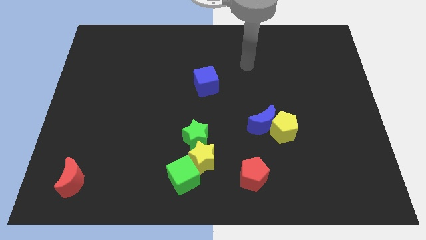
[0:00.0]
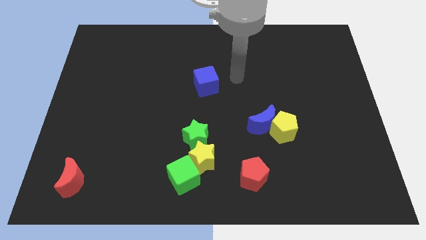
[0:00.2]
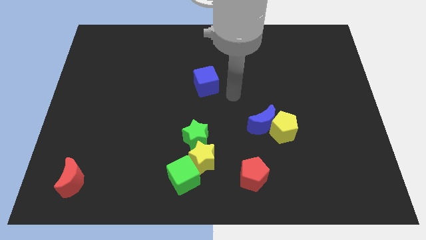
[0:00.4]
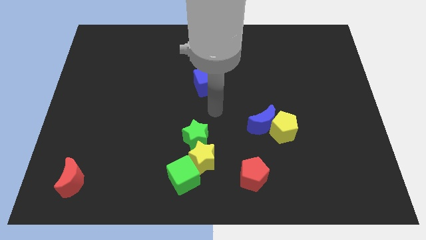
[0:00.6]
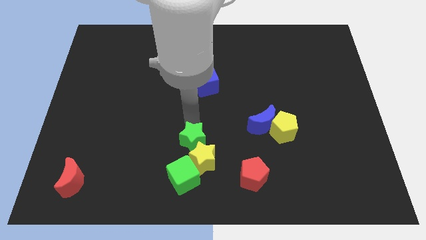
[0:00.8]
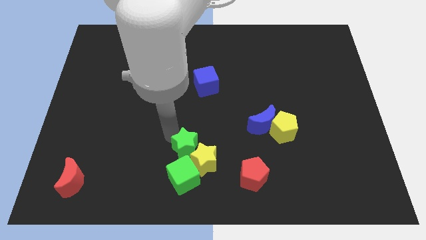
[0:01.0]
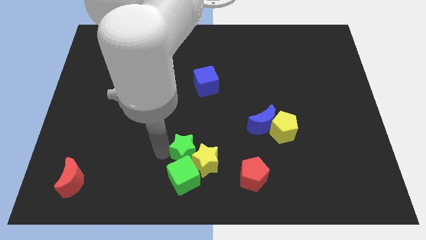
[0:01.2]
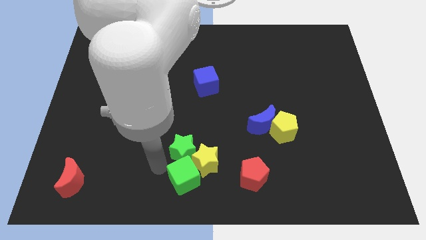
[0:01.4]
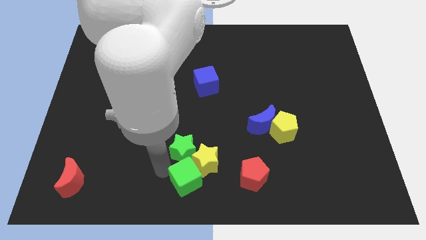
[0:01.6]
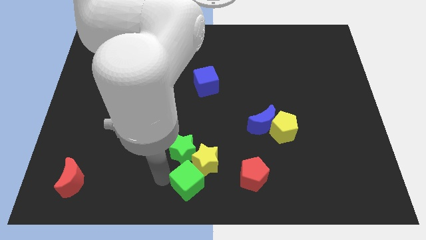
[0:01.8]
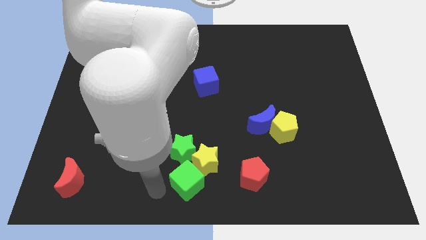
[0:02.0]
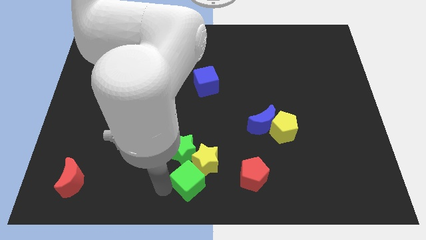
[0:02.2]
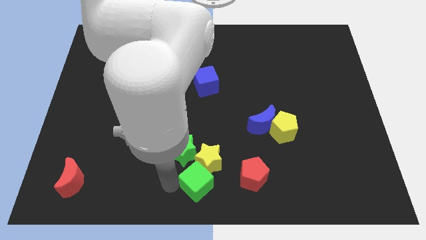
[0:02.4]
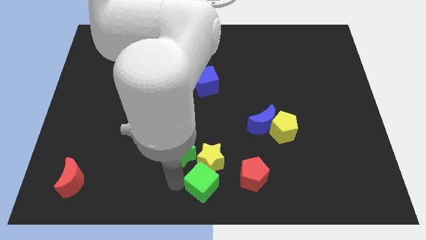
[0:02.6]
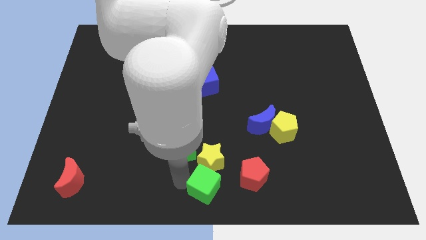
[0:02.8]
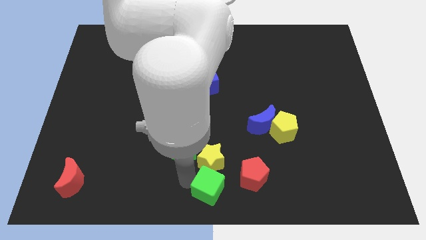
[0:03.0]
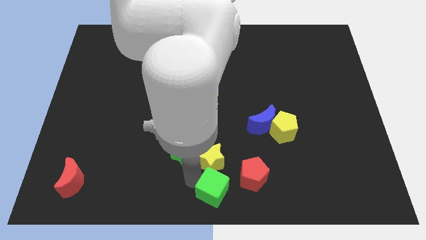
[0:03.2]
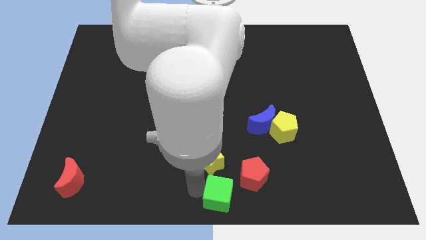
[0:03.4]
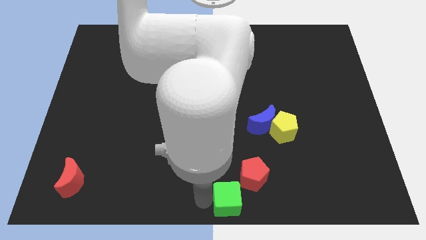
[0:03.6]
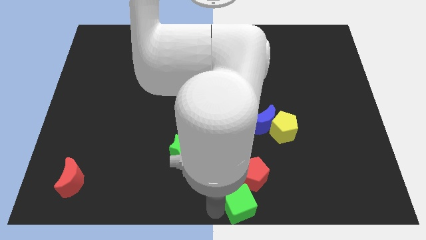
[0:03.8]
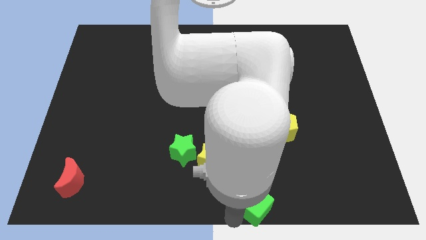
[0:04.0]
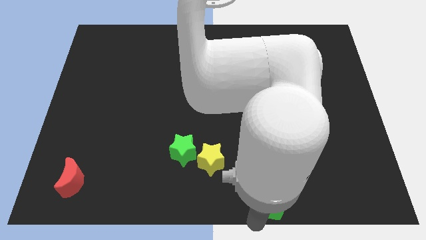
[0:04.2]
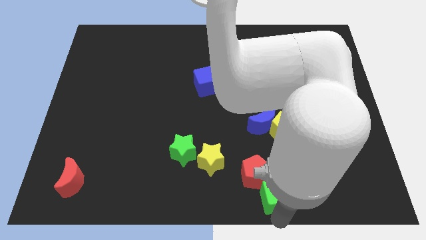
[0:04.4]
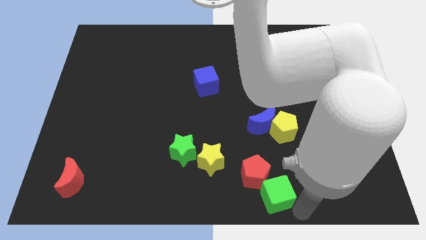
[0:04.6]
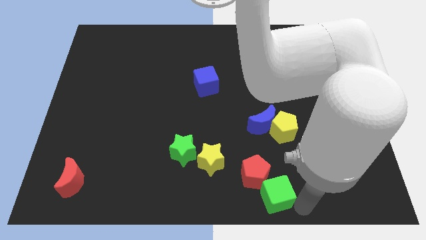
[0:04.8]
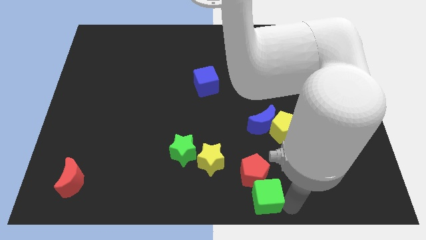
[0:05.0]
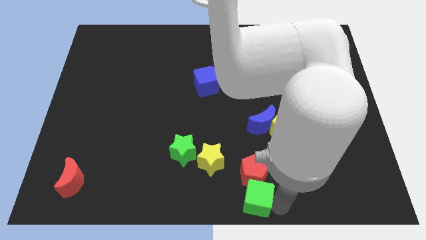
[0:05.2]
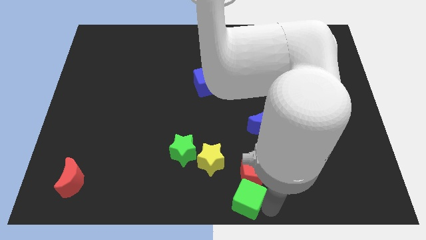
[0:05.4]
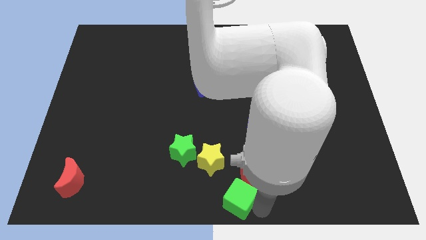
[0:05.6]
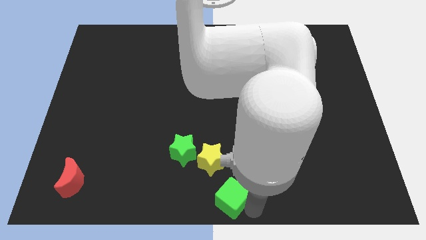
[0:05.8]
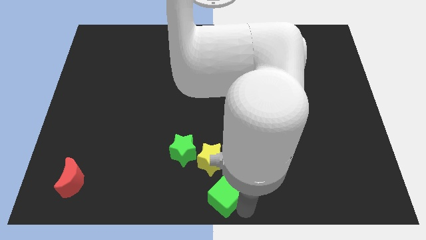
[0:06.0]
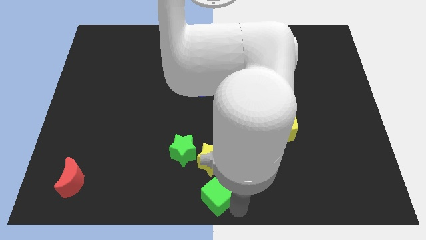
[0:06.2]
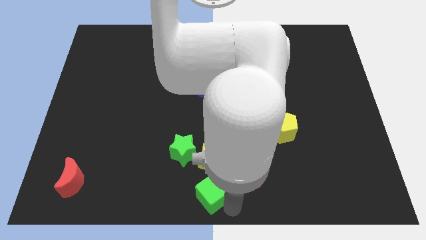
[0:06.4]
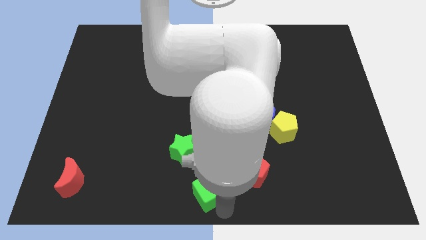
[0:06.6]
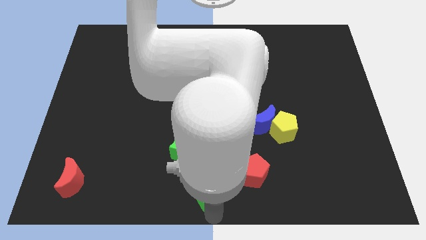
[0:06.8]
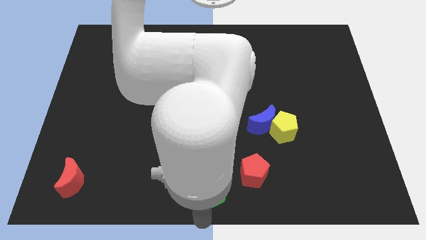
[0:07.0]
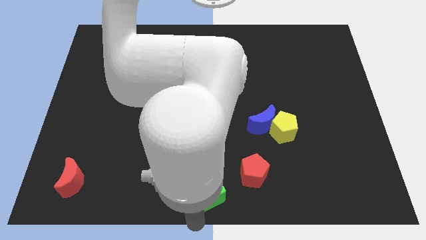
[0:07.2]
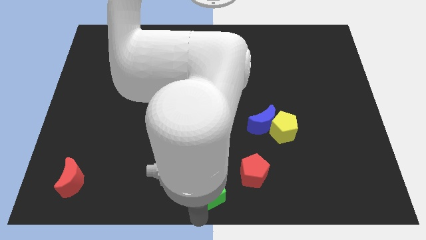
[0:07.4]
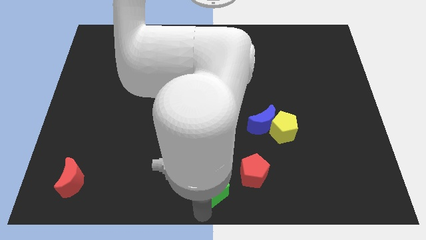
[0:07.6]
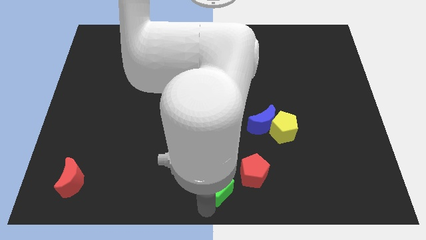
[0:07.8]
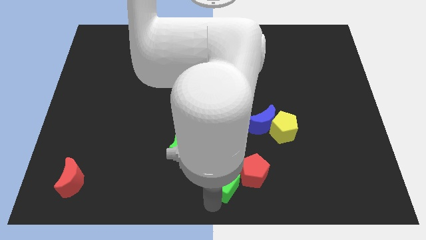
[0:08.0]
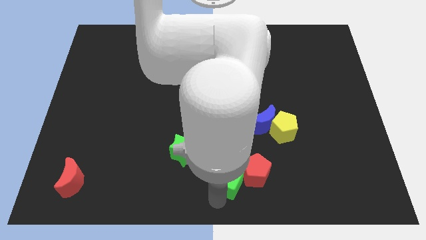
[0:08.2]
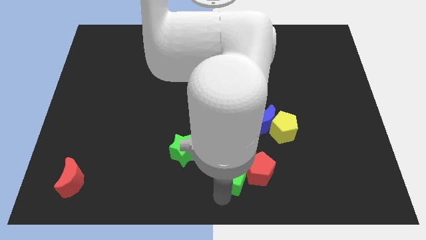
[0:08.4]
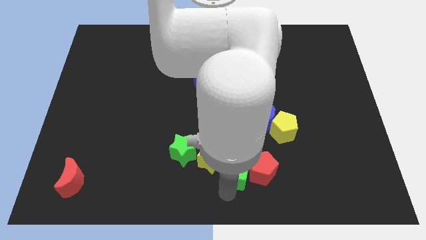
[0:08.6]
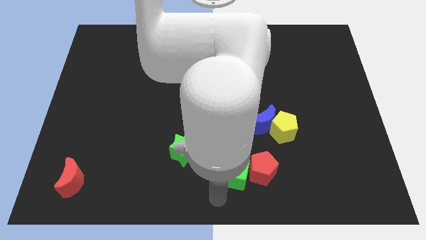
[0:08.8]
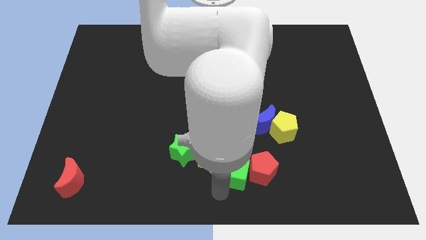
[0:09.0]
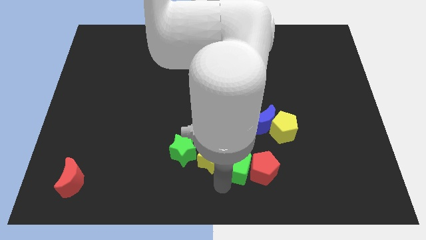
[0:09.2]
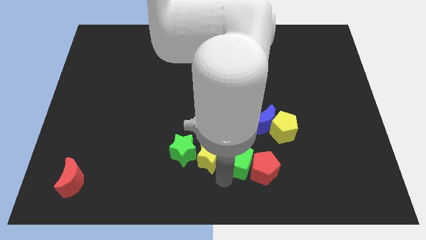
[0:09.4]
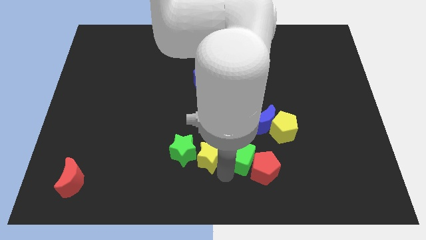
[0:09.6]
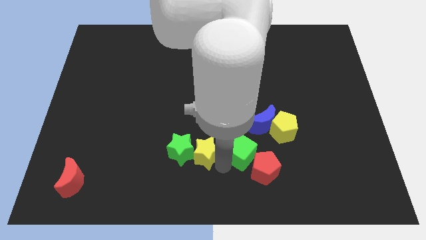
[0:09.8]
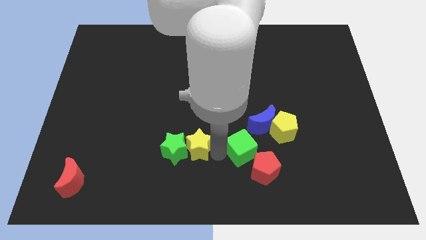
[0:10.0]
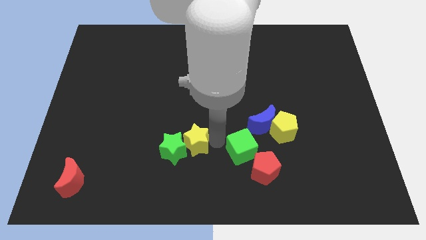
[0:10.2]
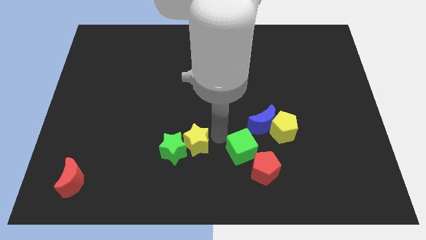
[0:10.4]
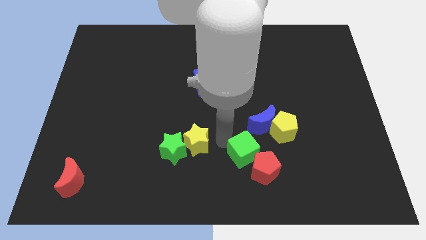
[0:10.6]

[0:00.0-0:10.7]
put the green cube to the bottom of the blue moon

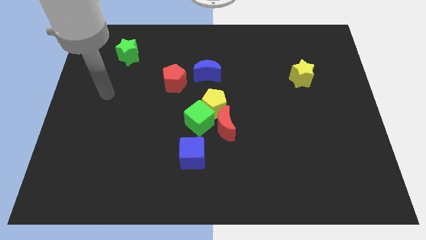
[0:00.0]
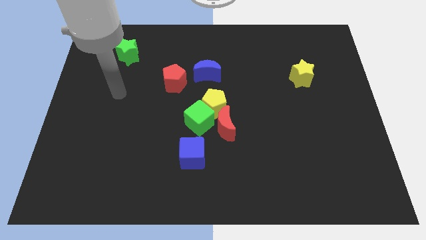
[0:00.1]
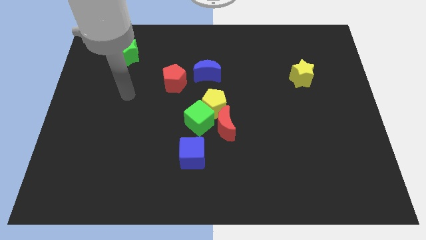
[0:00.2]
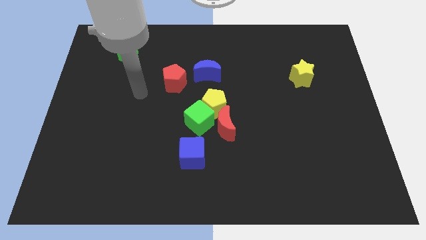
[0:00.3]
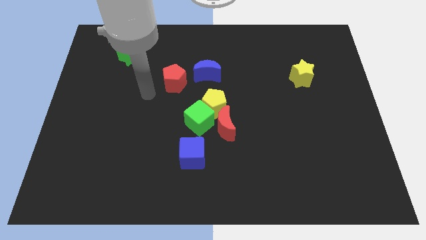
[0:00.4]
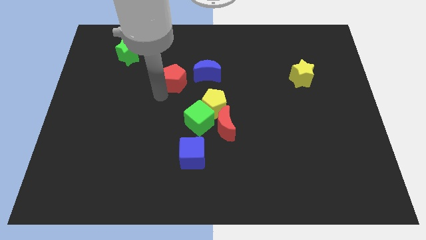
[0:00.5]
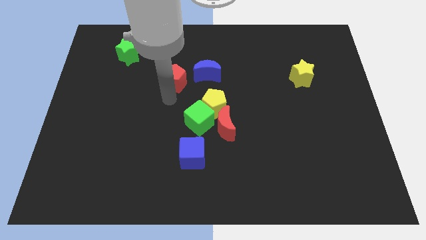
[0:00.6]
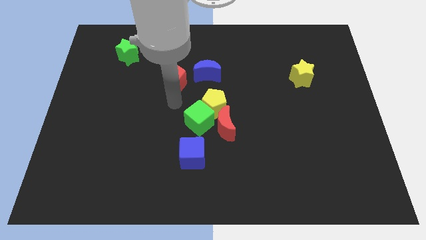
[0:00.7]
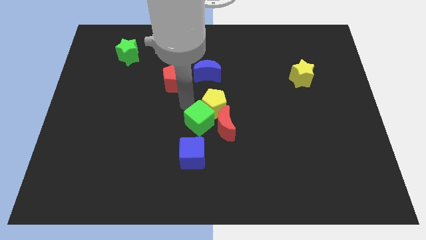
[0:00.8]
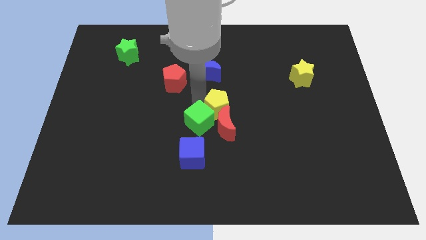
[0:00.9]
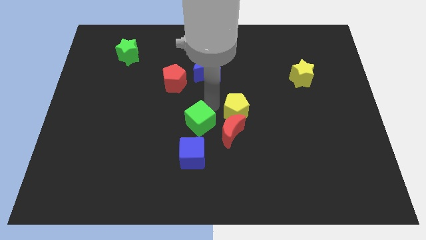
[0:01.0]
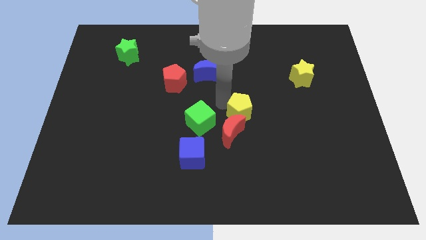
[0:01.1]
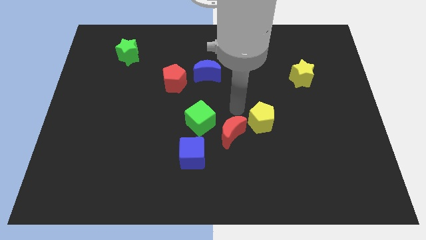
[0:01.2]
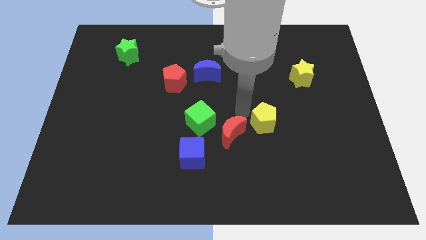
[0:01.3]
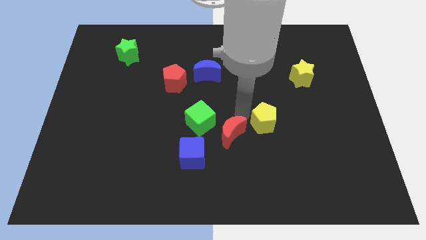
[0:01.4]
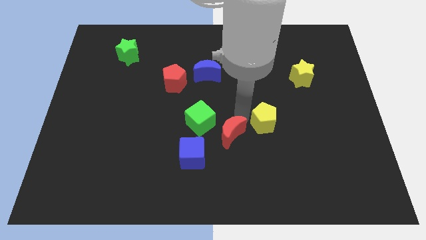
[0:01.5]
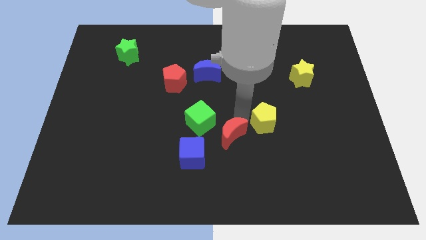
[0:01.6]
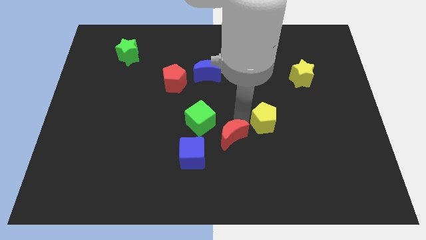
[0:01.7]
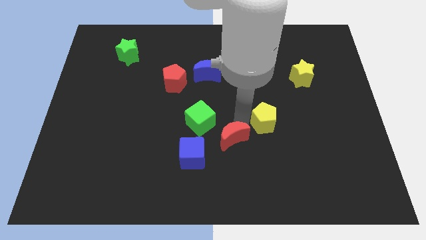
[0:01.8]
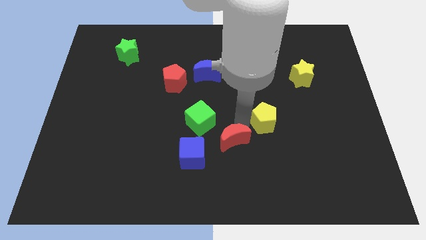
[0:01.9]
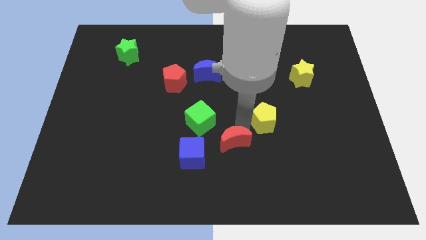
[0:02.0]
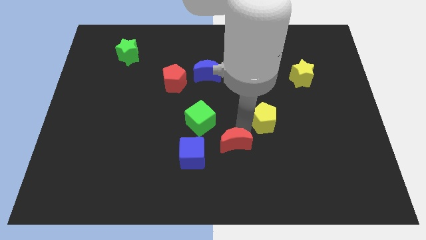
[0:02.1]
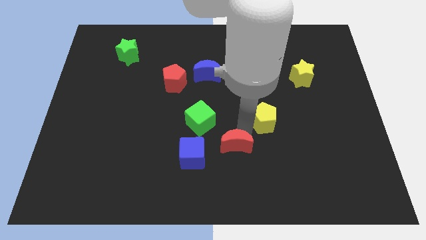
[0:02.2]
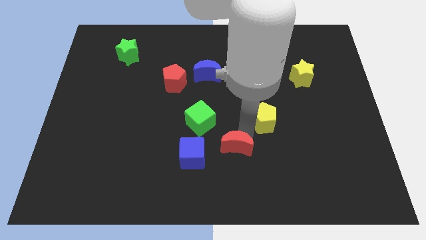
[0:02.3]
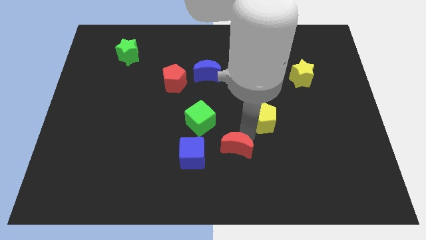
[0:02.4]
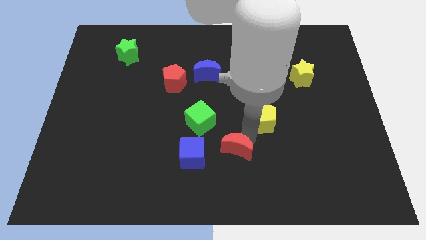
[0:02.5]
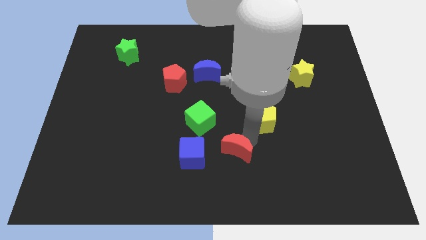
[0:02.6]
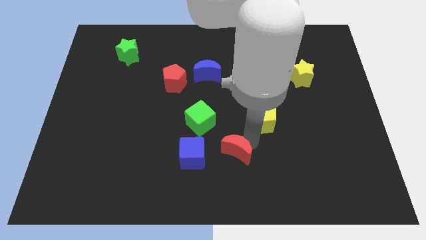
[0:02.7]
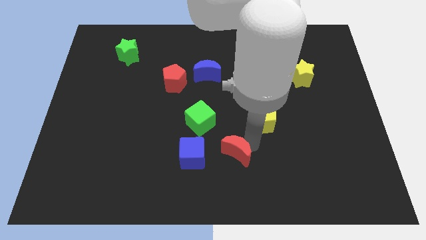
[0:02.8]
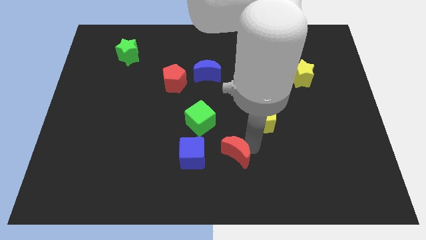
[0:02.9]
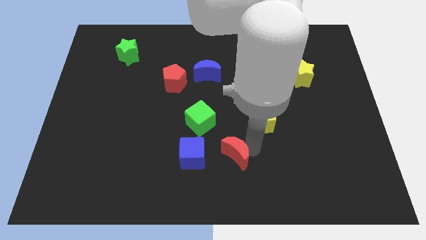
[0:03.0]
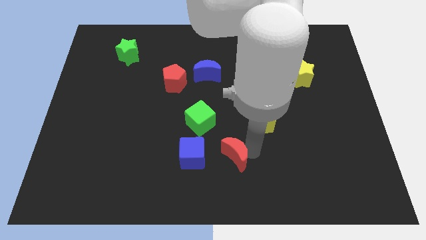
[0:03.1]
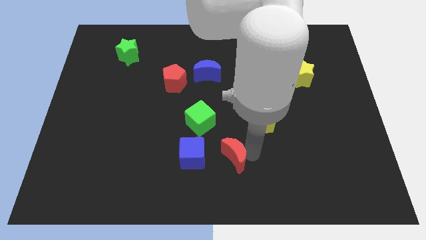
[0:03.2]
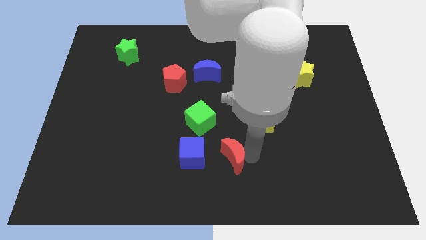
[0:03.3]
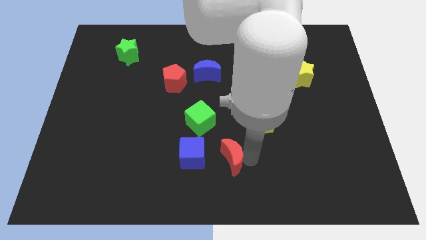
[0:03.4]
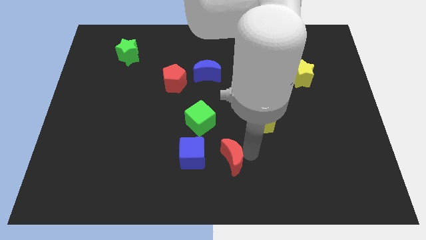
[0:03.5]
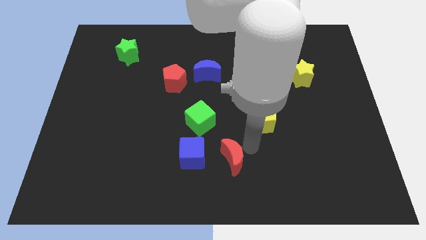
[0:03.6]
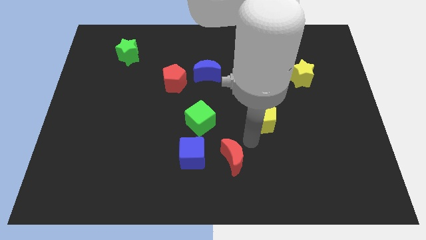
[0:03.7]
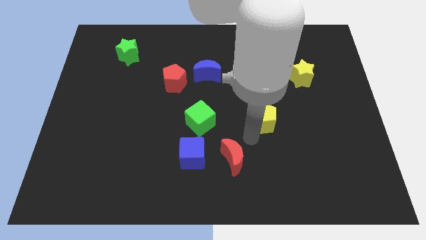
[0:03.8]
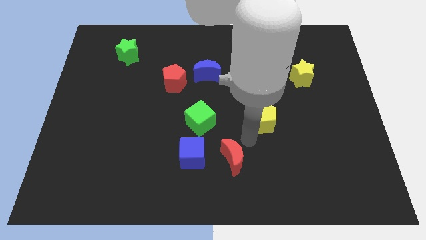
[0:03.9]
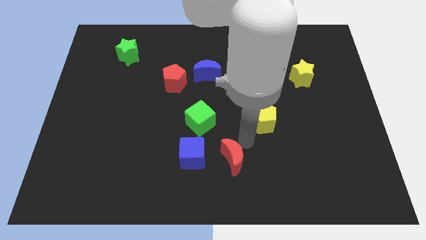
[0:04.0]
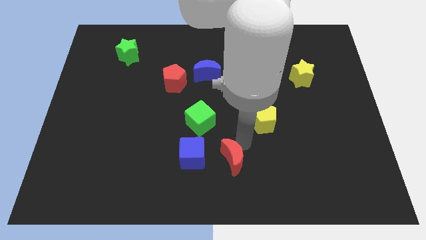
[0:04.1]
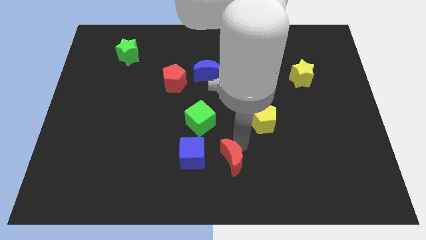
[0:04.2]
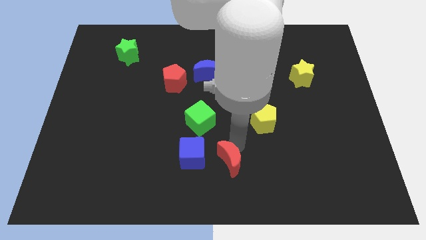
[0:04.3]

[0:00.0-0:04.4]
move the red moon diagonally down and to the right of the blue cube
